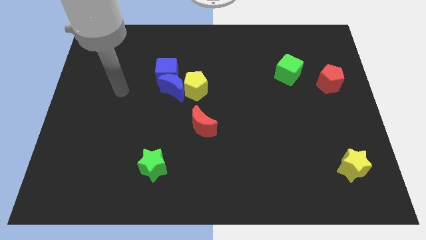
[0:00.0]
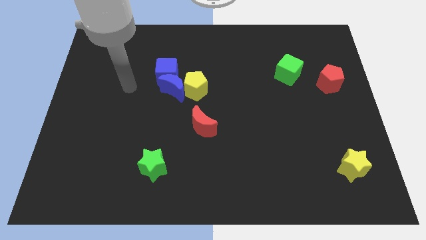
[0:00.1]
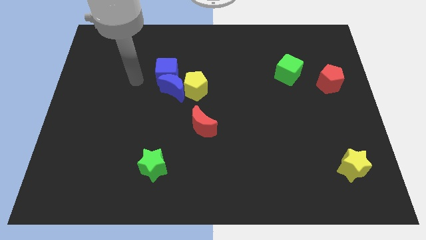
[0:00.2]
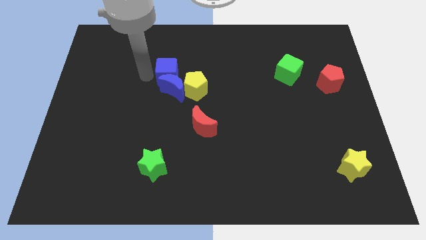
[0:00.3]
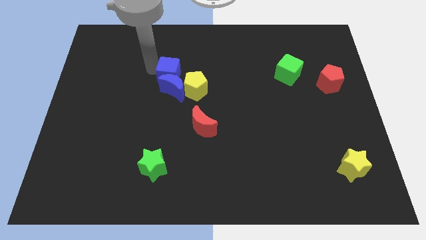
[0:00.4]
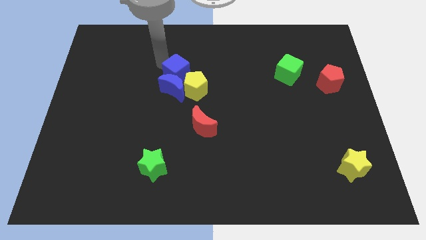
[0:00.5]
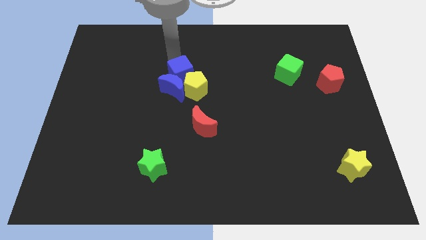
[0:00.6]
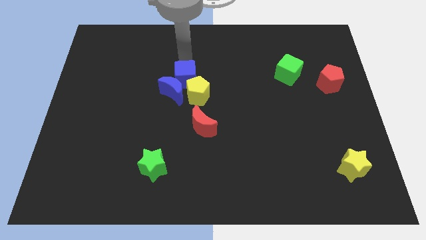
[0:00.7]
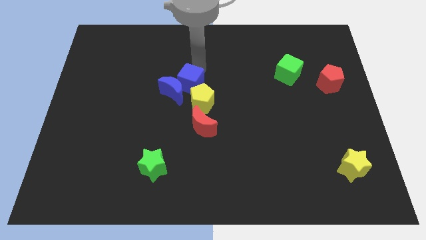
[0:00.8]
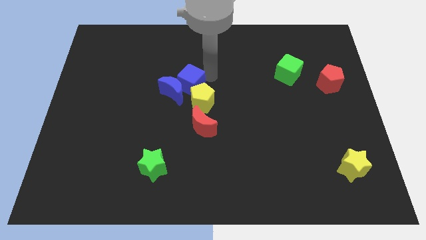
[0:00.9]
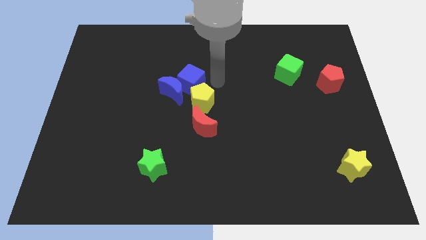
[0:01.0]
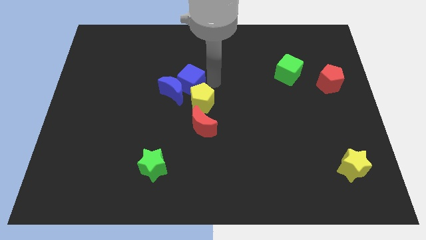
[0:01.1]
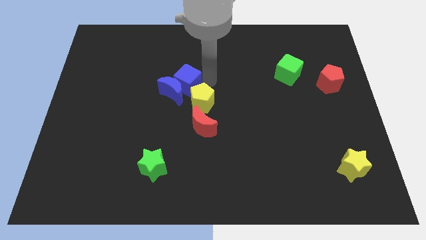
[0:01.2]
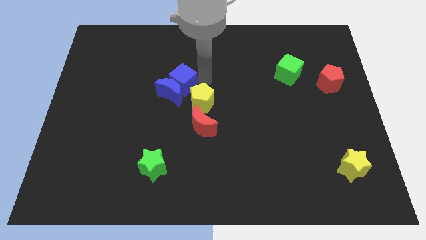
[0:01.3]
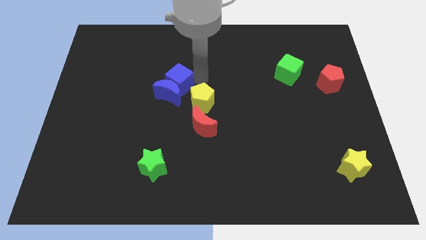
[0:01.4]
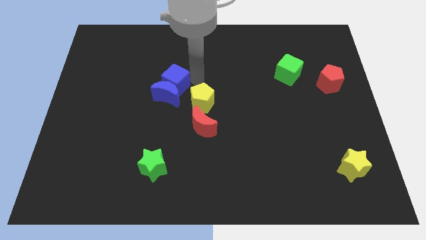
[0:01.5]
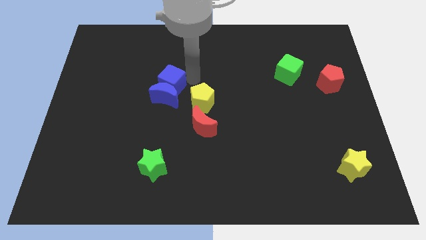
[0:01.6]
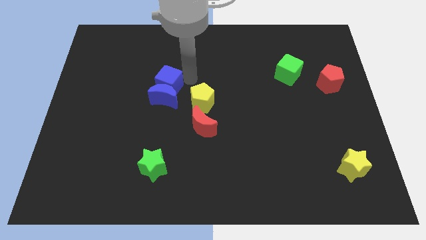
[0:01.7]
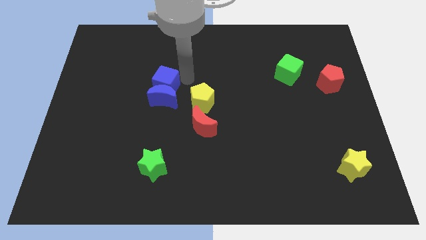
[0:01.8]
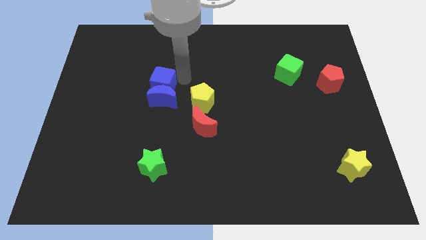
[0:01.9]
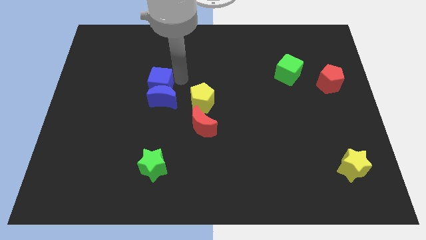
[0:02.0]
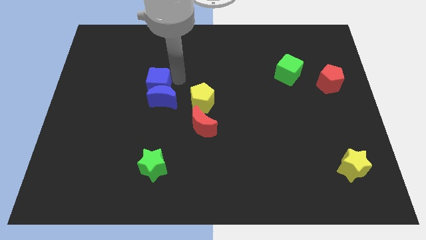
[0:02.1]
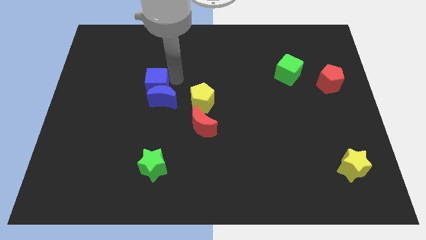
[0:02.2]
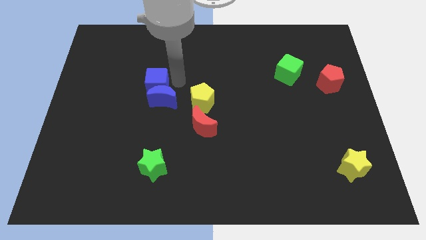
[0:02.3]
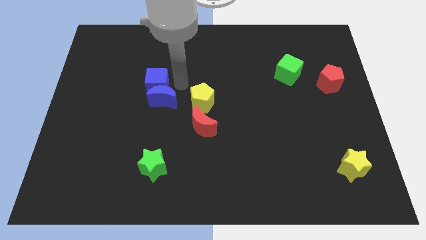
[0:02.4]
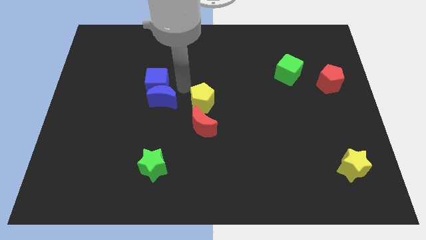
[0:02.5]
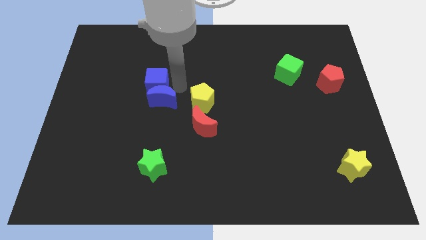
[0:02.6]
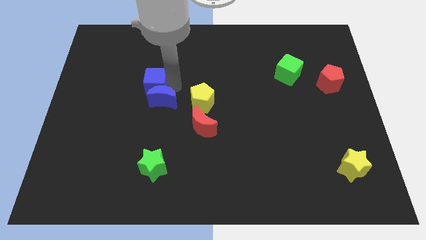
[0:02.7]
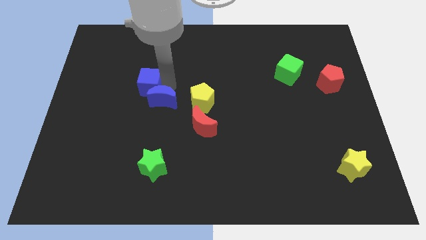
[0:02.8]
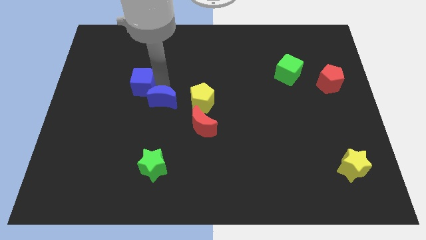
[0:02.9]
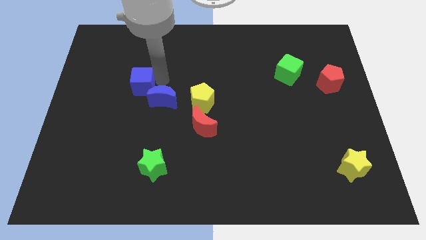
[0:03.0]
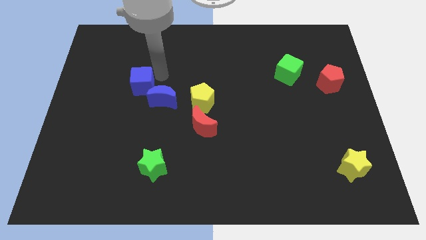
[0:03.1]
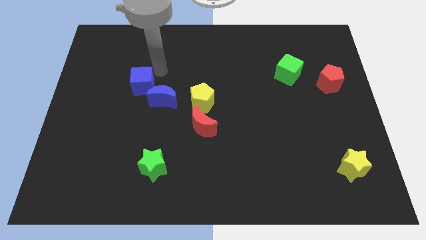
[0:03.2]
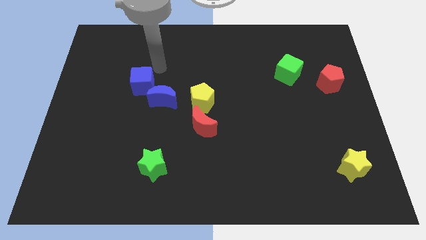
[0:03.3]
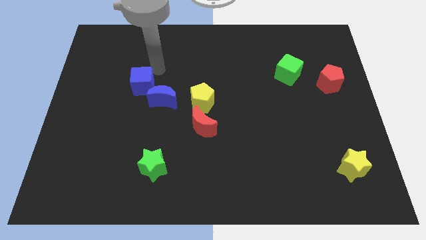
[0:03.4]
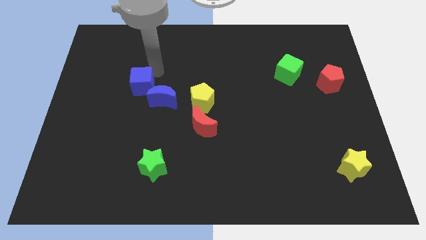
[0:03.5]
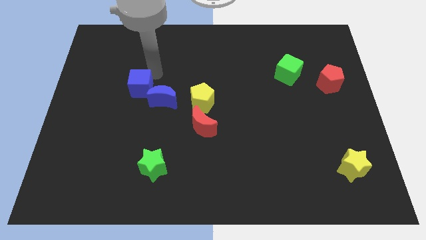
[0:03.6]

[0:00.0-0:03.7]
slightly move the blue cube downwards and left diagonally

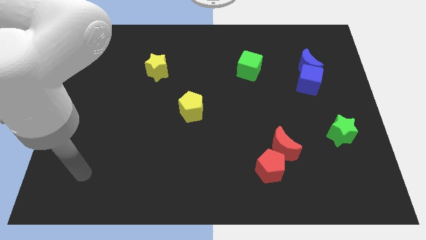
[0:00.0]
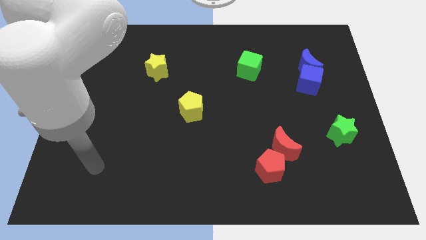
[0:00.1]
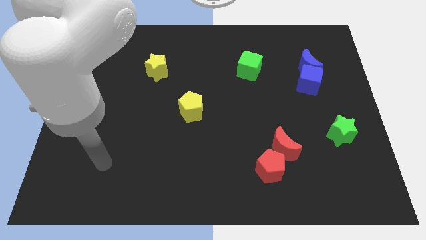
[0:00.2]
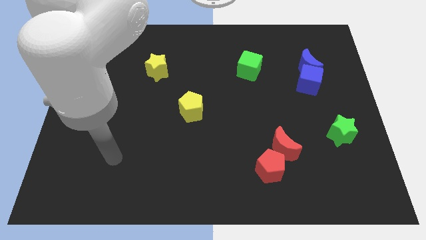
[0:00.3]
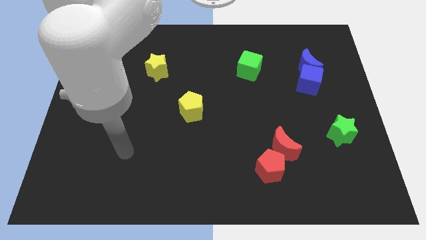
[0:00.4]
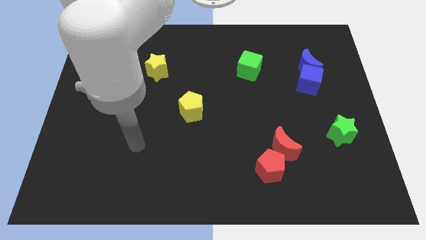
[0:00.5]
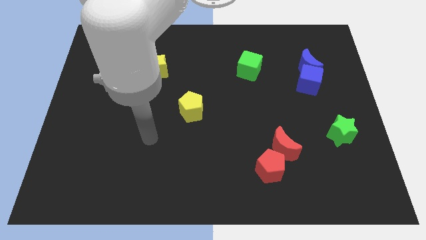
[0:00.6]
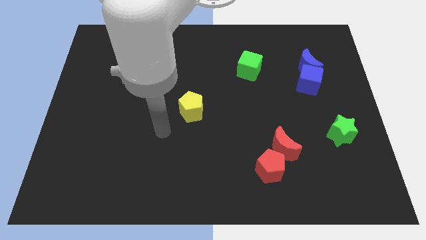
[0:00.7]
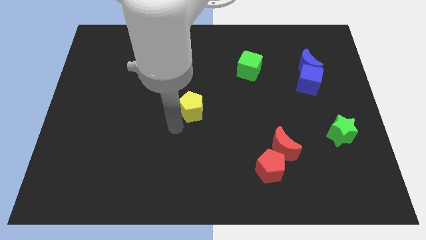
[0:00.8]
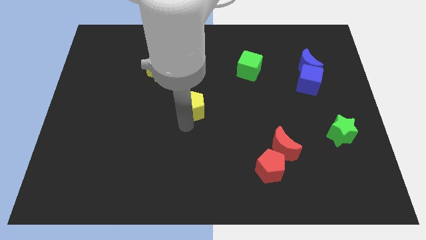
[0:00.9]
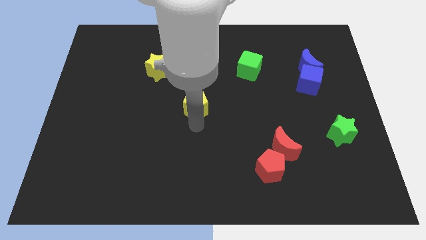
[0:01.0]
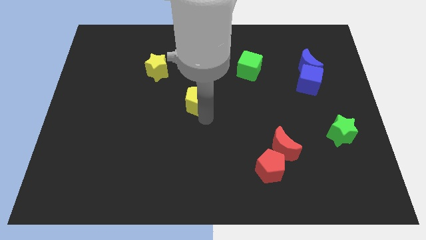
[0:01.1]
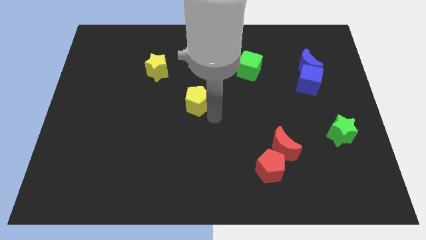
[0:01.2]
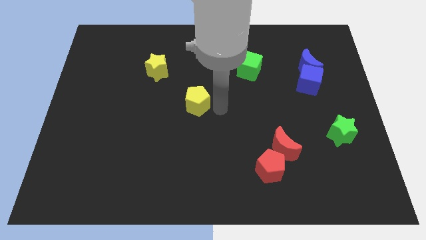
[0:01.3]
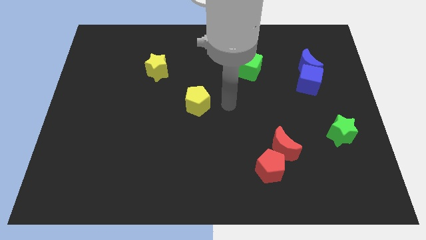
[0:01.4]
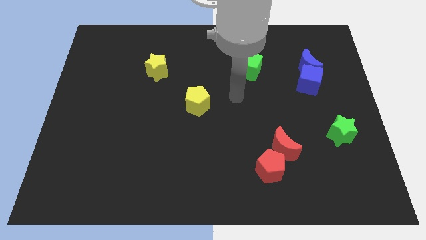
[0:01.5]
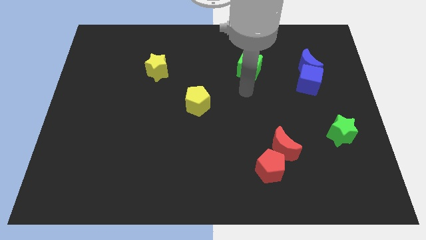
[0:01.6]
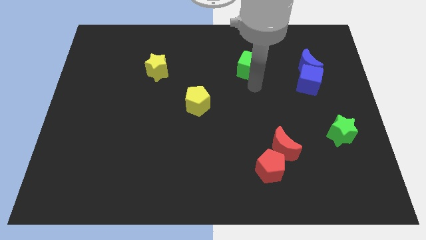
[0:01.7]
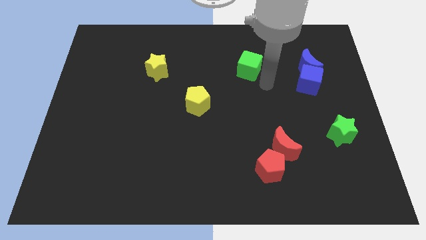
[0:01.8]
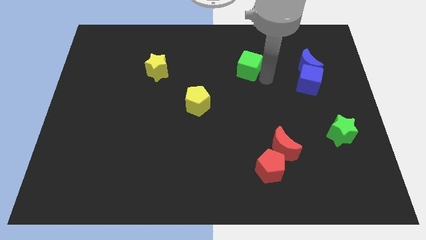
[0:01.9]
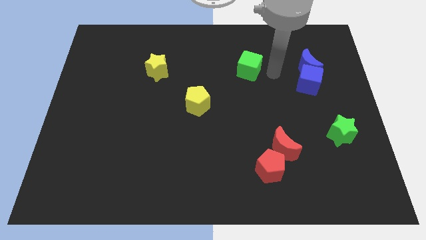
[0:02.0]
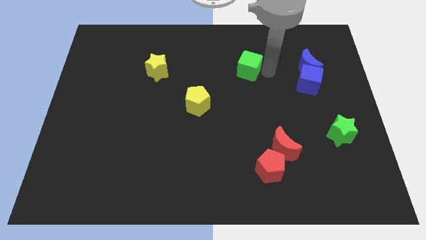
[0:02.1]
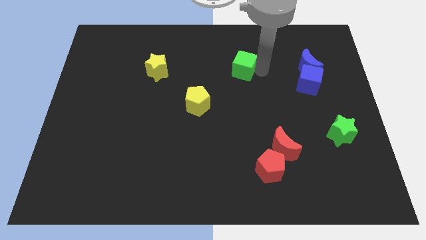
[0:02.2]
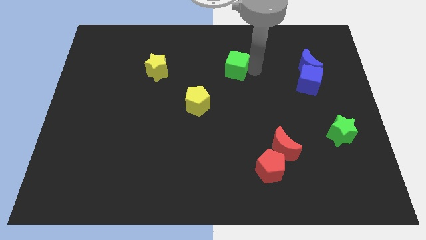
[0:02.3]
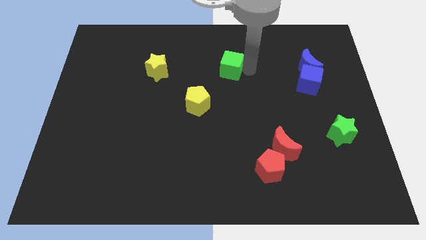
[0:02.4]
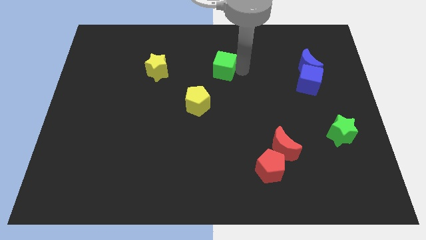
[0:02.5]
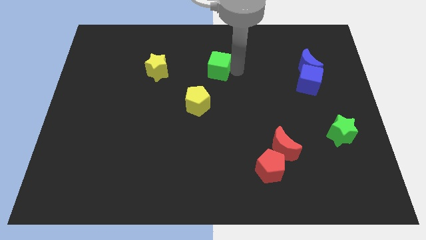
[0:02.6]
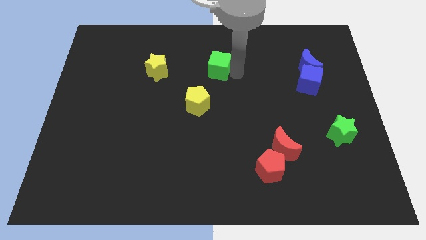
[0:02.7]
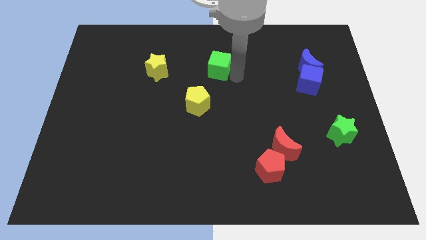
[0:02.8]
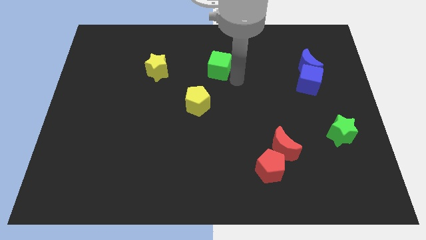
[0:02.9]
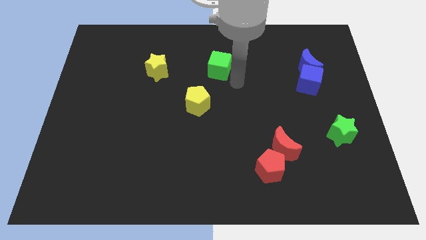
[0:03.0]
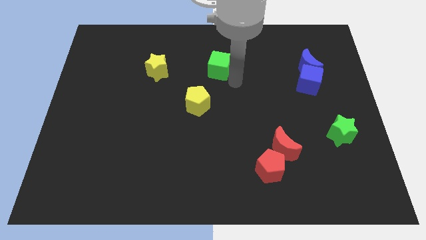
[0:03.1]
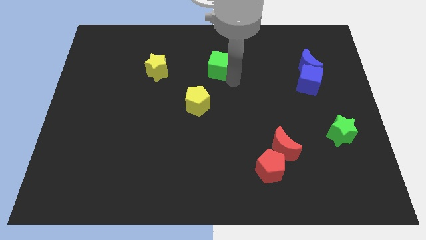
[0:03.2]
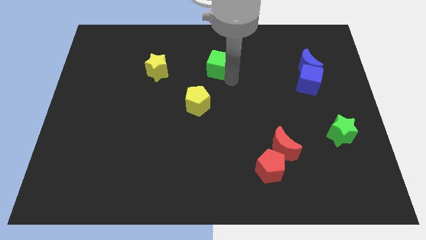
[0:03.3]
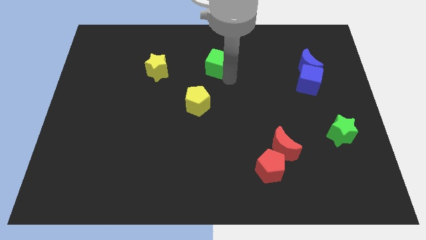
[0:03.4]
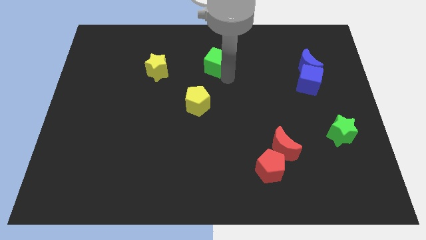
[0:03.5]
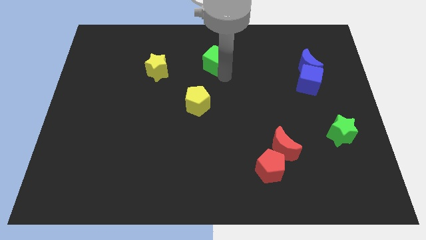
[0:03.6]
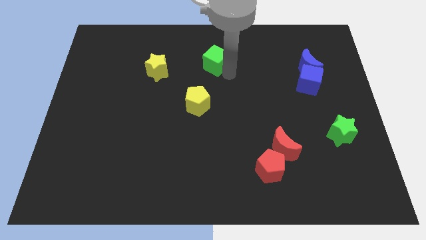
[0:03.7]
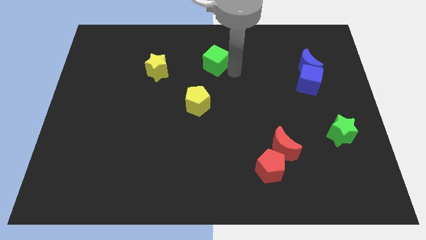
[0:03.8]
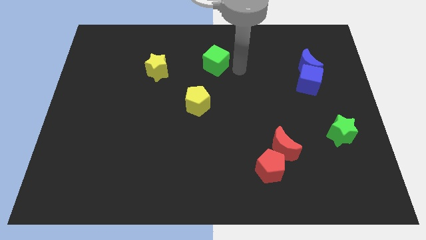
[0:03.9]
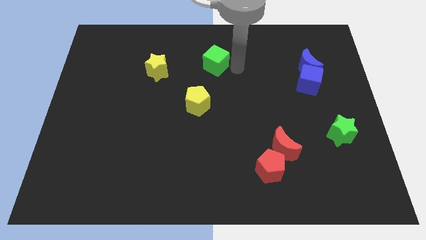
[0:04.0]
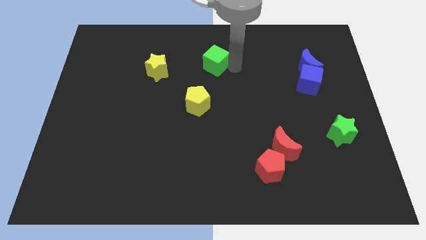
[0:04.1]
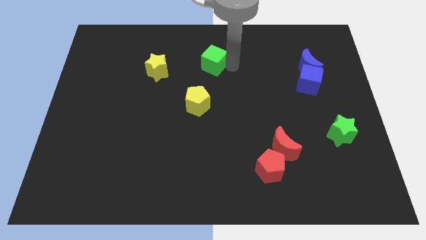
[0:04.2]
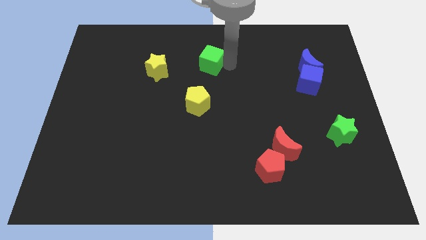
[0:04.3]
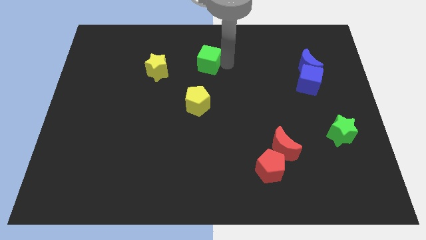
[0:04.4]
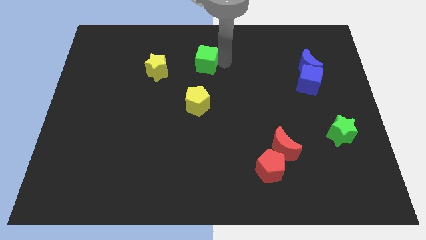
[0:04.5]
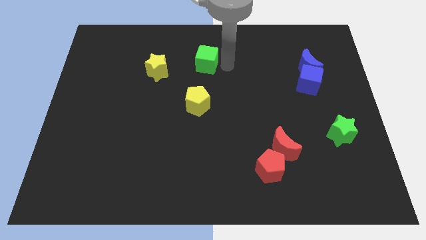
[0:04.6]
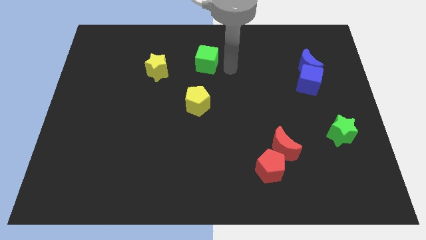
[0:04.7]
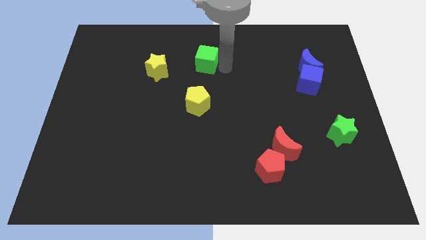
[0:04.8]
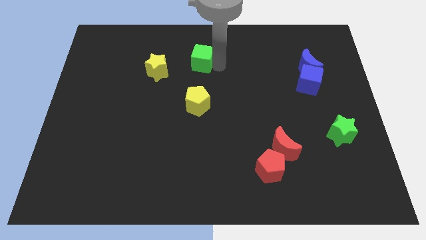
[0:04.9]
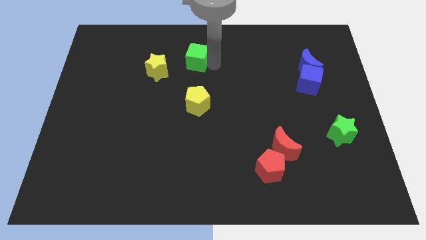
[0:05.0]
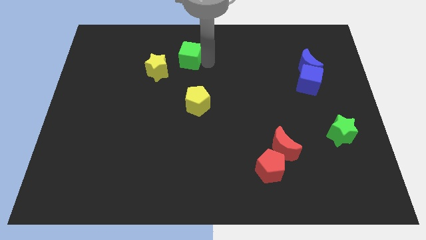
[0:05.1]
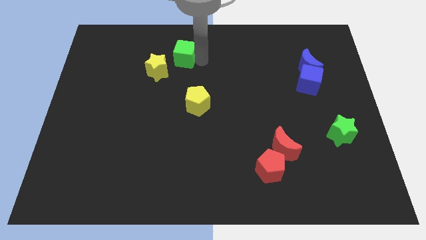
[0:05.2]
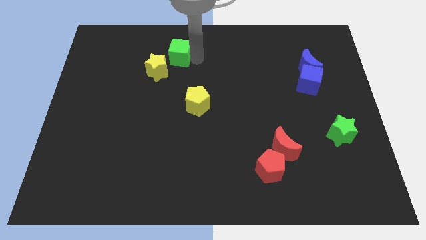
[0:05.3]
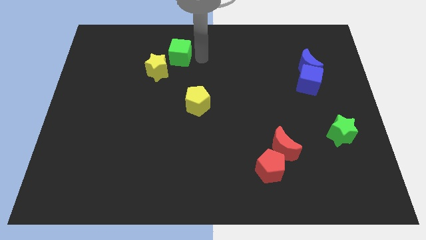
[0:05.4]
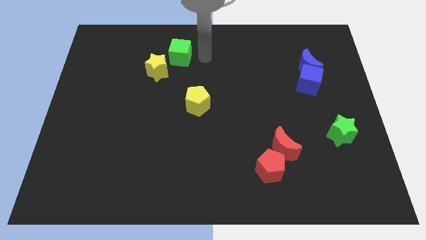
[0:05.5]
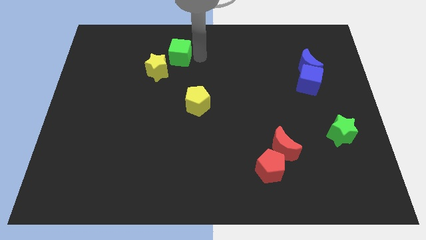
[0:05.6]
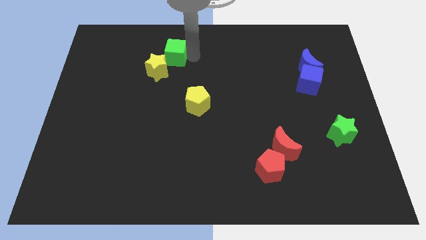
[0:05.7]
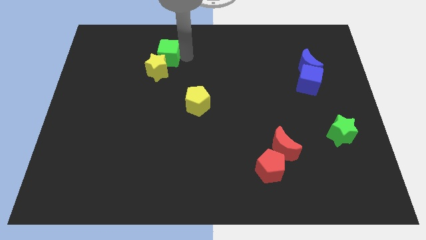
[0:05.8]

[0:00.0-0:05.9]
slide the green cube left
